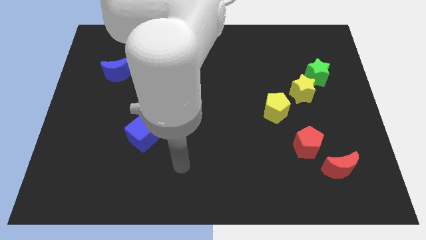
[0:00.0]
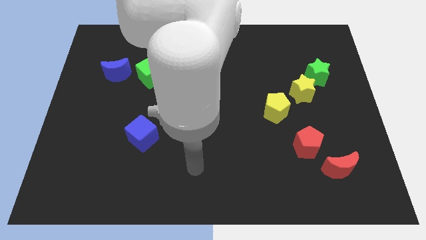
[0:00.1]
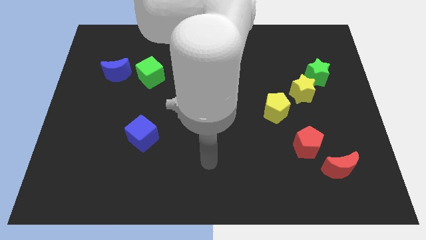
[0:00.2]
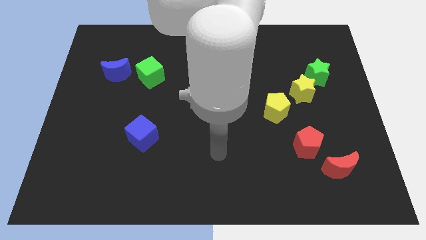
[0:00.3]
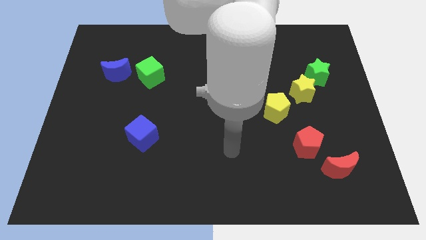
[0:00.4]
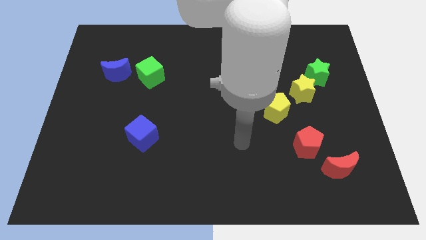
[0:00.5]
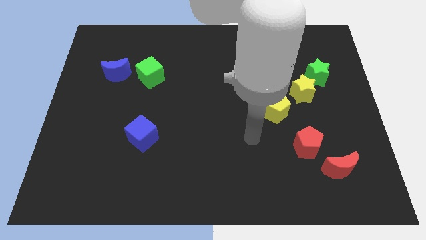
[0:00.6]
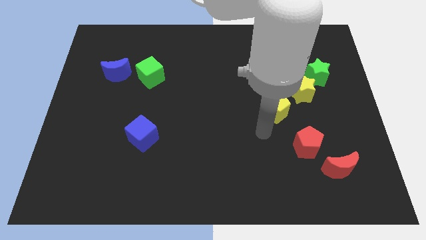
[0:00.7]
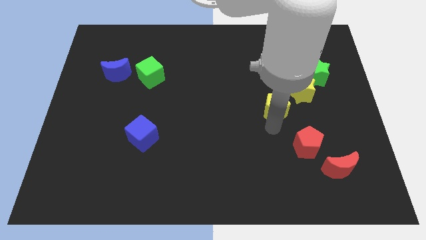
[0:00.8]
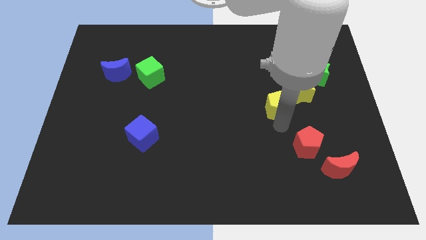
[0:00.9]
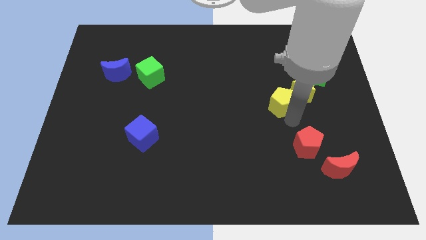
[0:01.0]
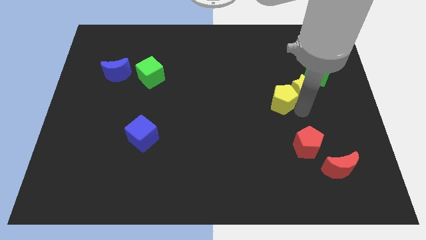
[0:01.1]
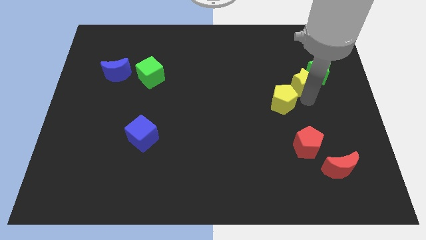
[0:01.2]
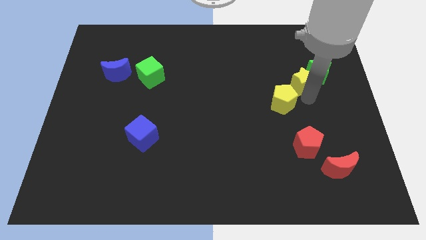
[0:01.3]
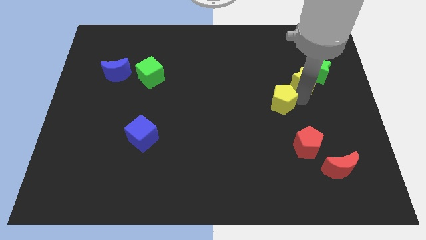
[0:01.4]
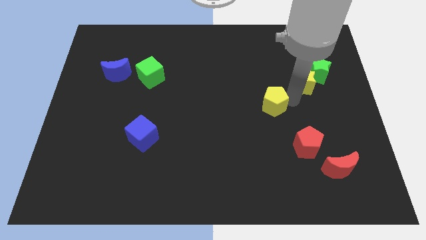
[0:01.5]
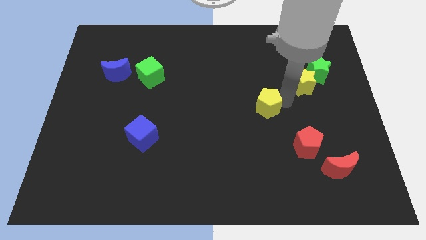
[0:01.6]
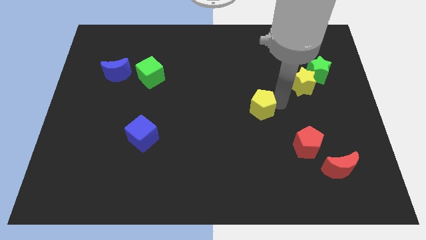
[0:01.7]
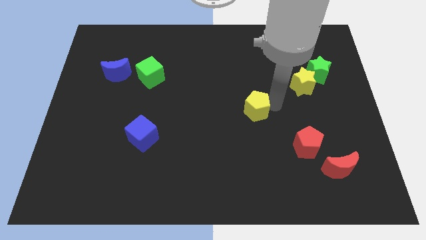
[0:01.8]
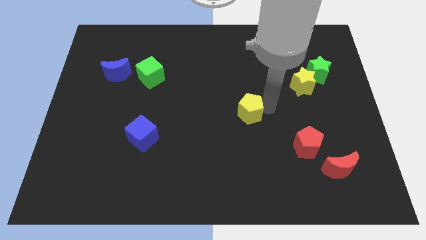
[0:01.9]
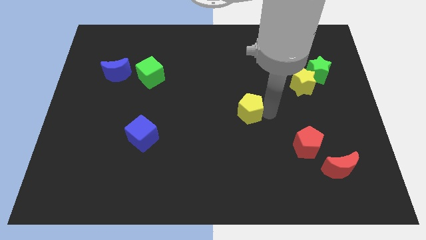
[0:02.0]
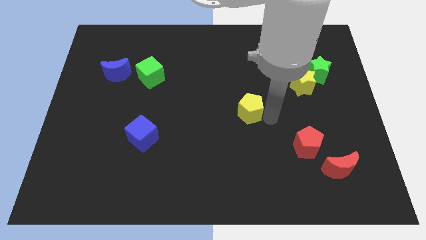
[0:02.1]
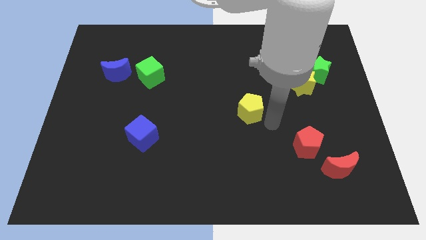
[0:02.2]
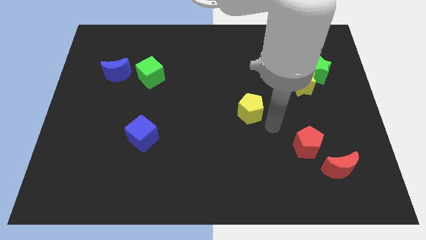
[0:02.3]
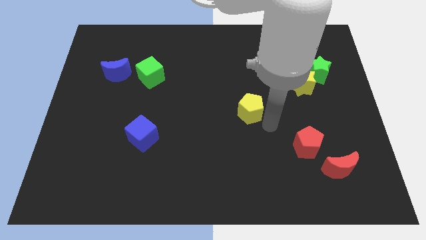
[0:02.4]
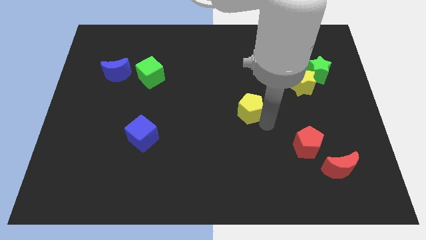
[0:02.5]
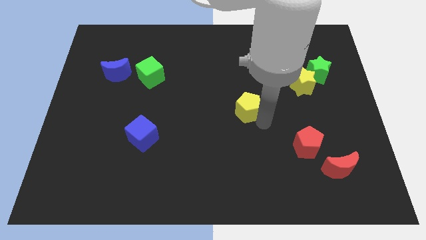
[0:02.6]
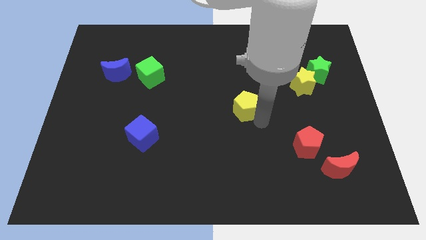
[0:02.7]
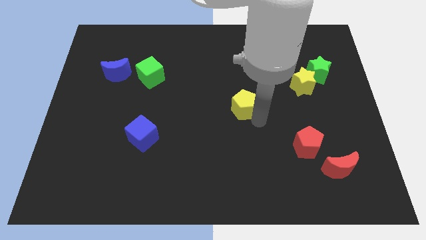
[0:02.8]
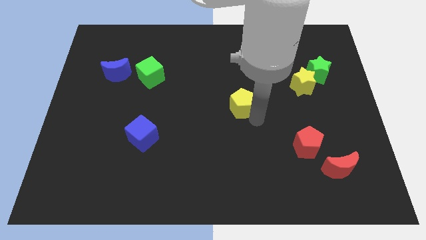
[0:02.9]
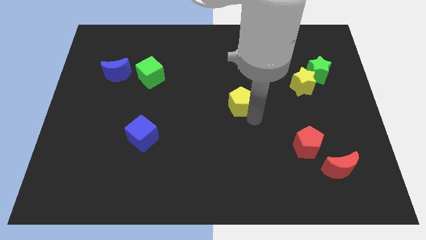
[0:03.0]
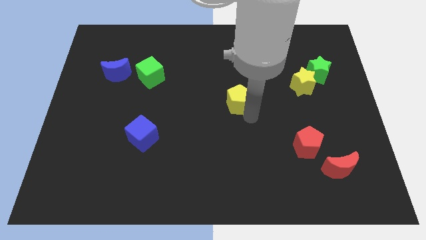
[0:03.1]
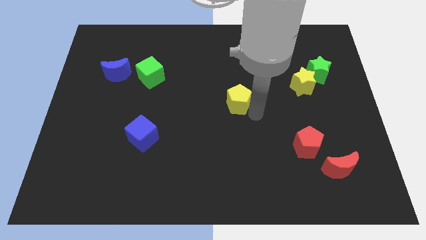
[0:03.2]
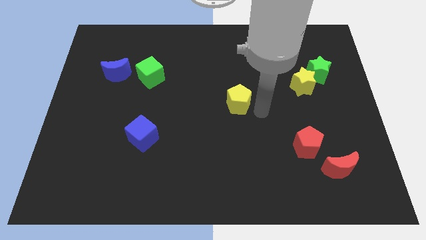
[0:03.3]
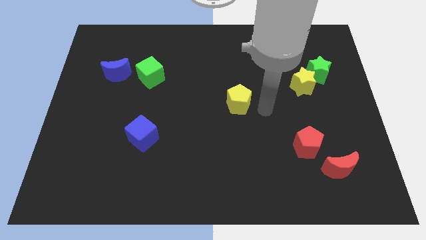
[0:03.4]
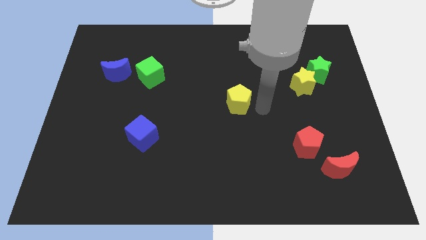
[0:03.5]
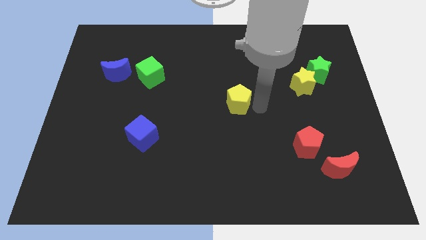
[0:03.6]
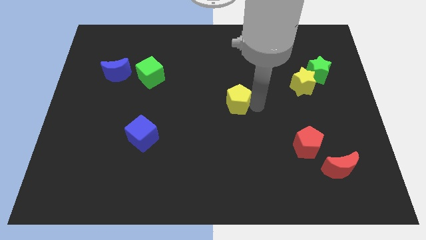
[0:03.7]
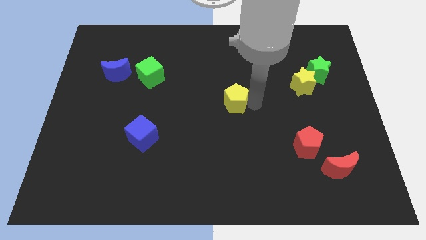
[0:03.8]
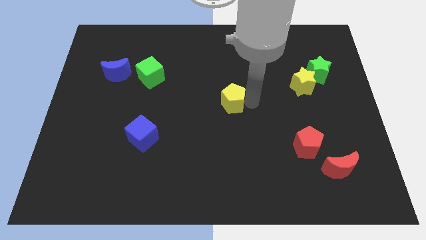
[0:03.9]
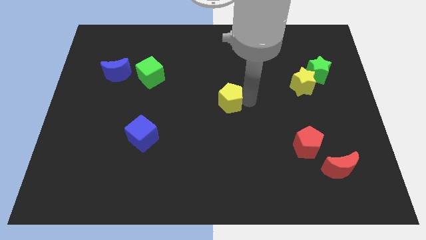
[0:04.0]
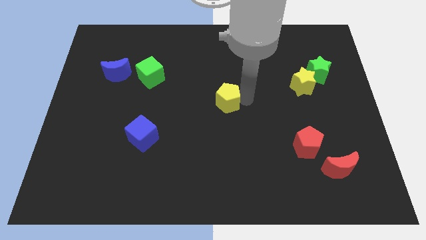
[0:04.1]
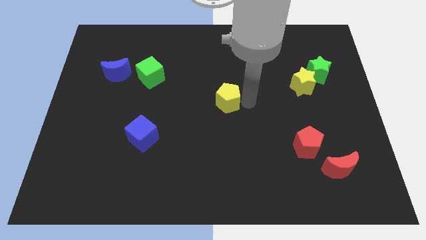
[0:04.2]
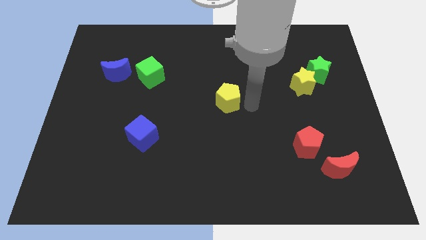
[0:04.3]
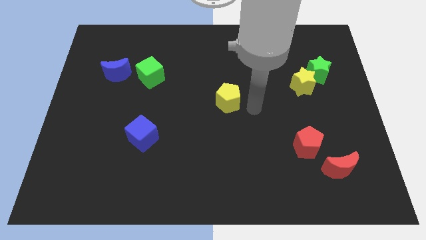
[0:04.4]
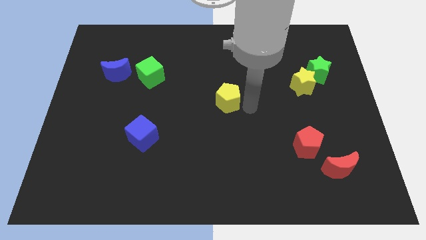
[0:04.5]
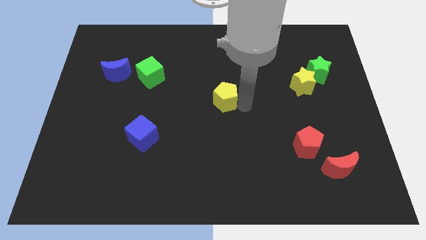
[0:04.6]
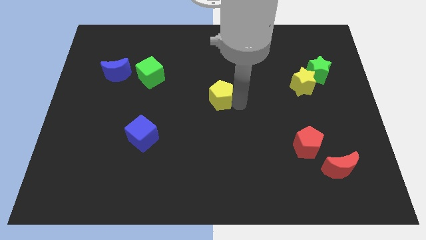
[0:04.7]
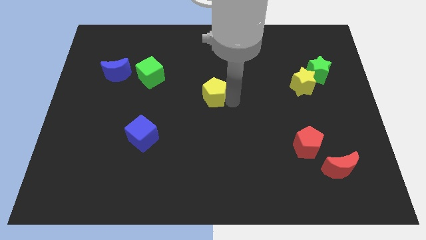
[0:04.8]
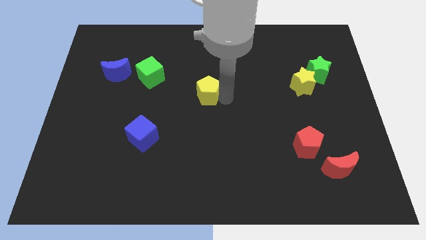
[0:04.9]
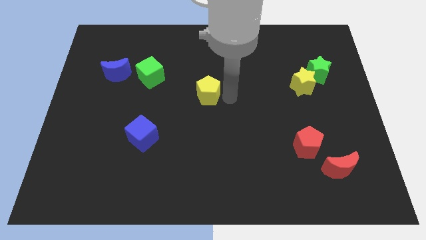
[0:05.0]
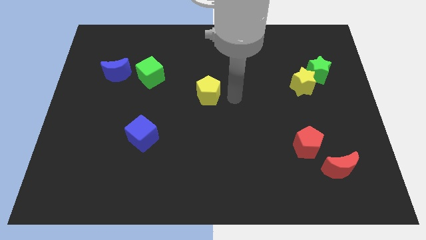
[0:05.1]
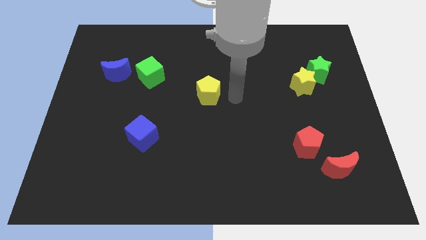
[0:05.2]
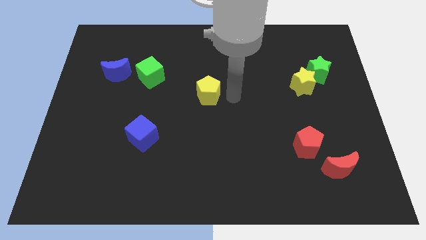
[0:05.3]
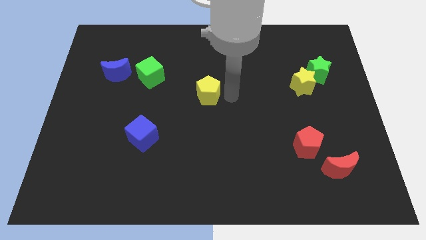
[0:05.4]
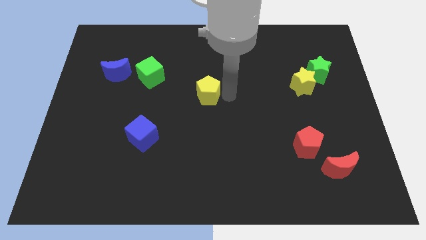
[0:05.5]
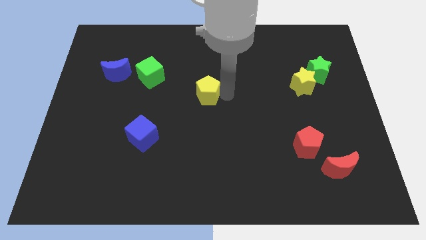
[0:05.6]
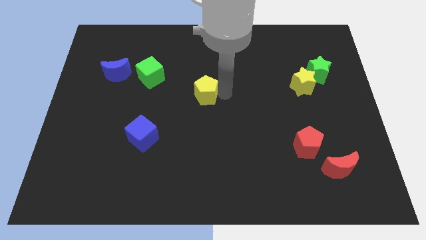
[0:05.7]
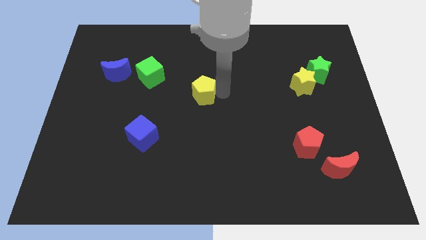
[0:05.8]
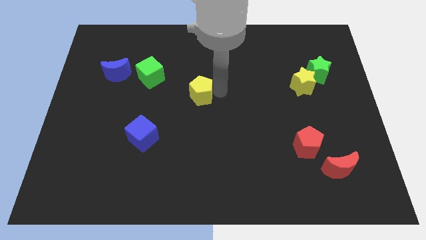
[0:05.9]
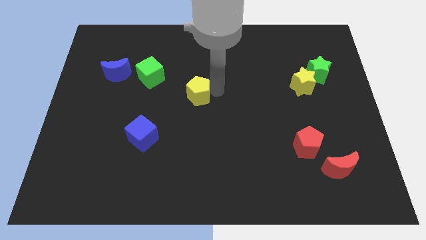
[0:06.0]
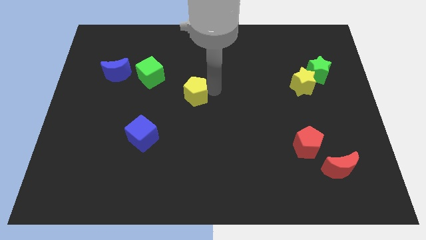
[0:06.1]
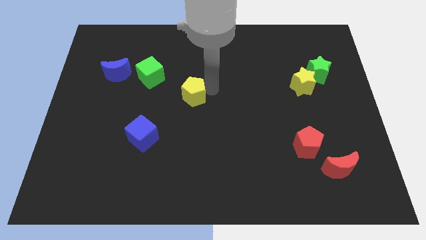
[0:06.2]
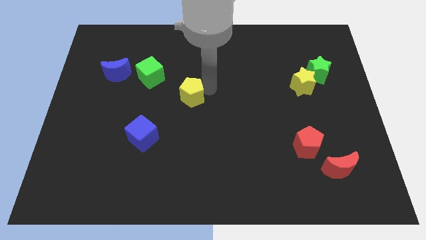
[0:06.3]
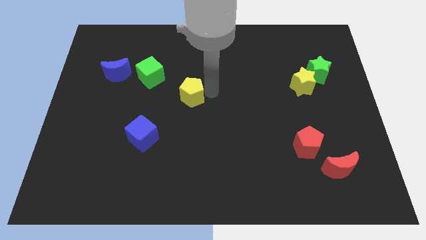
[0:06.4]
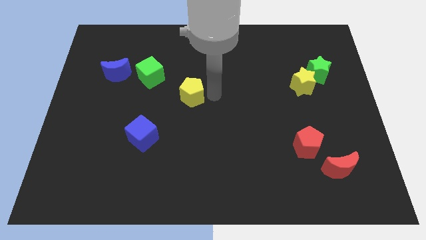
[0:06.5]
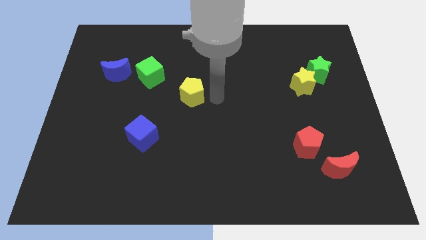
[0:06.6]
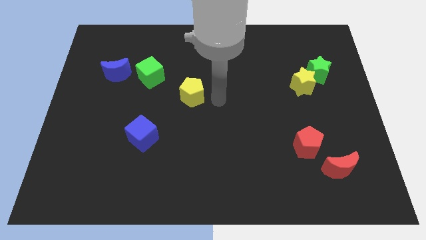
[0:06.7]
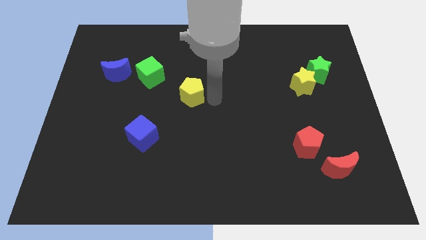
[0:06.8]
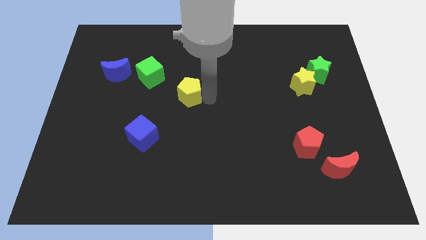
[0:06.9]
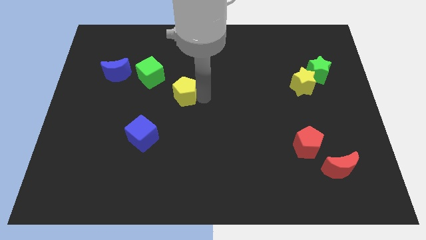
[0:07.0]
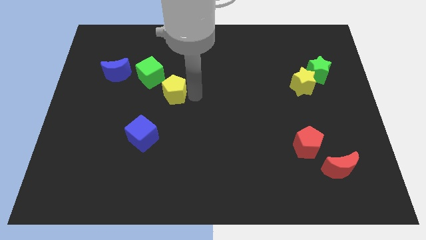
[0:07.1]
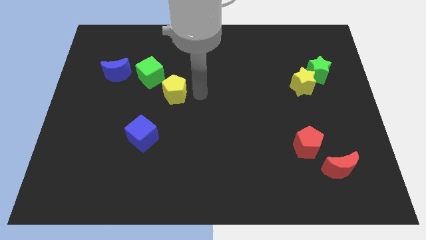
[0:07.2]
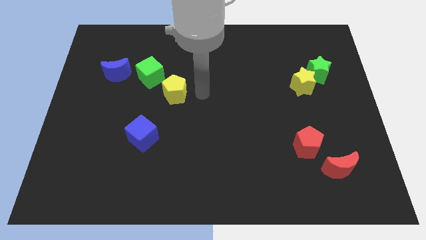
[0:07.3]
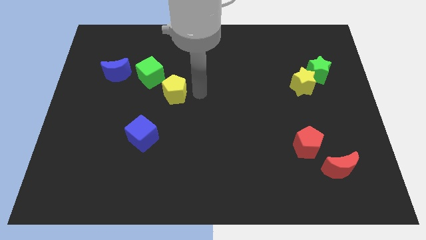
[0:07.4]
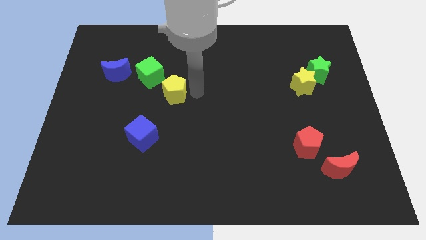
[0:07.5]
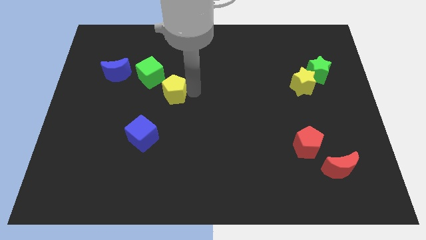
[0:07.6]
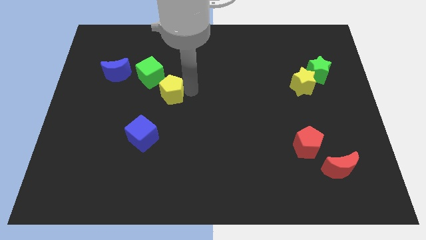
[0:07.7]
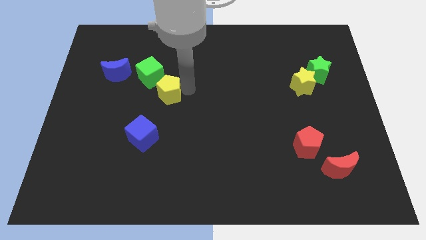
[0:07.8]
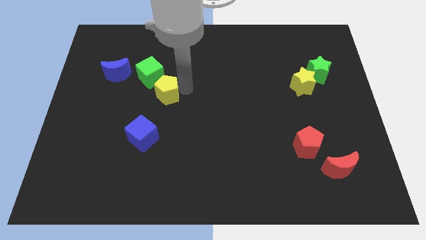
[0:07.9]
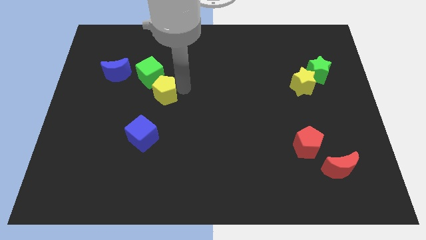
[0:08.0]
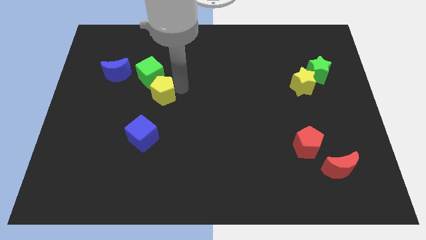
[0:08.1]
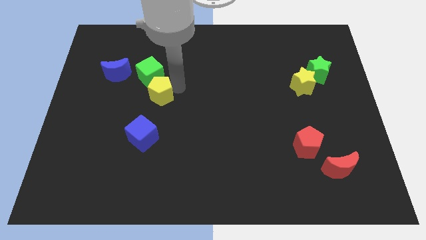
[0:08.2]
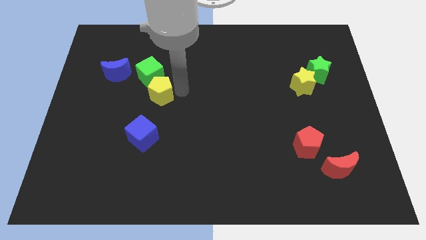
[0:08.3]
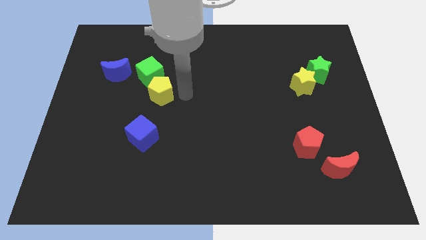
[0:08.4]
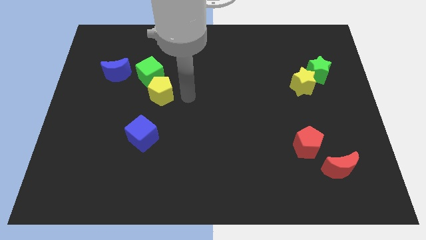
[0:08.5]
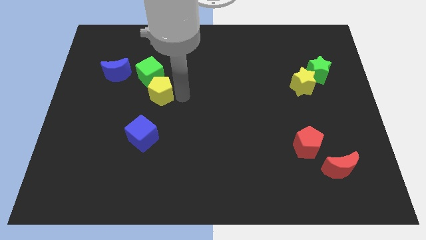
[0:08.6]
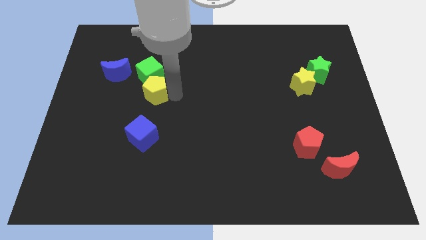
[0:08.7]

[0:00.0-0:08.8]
put the yellow pentagon diagonally down and to the right of the blue moon
